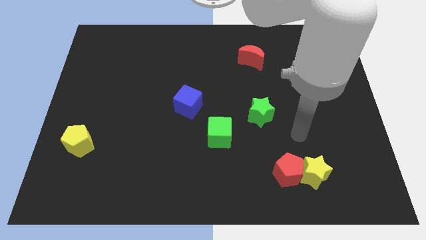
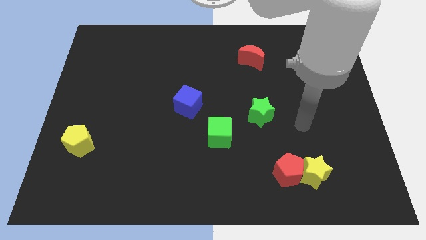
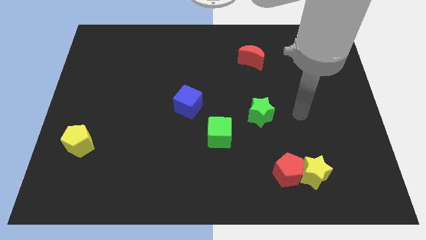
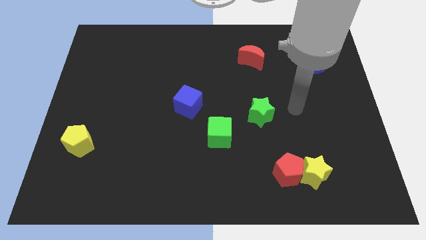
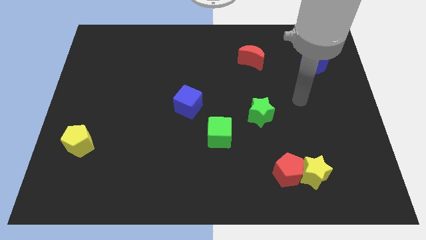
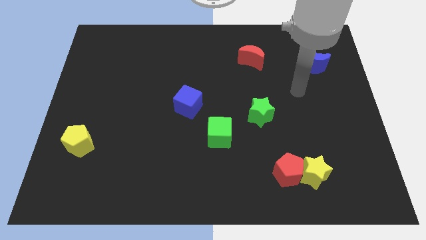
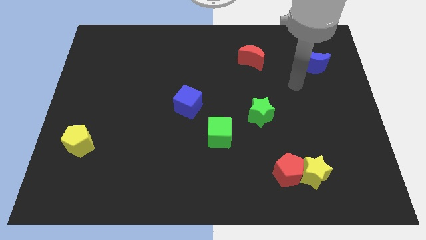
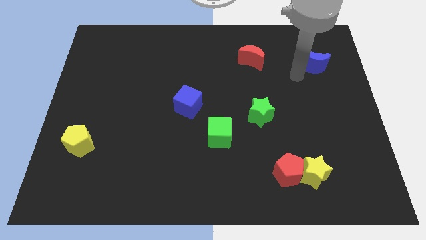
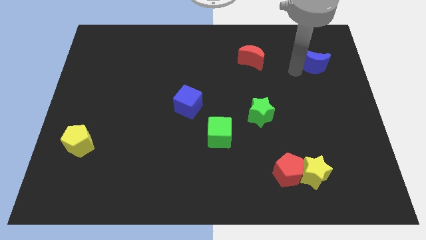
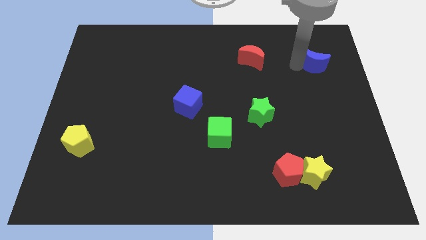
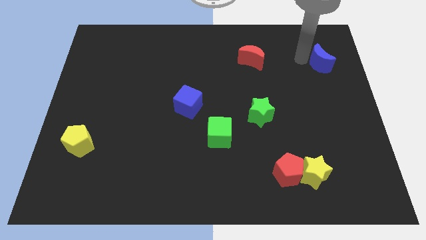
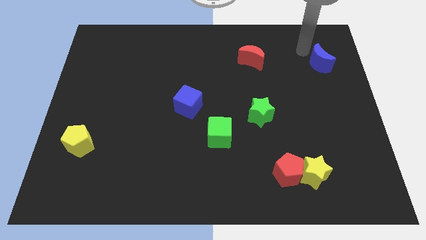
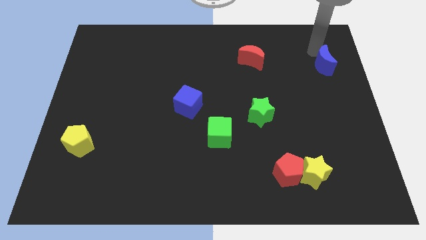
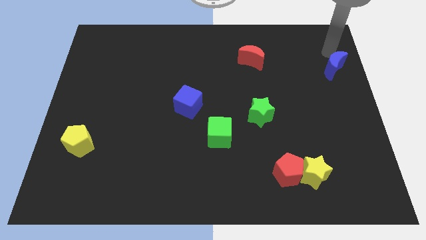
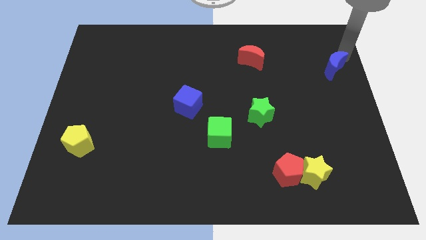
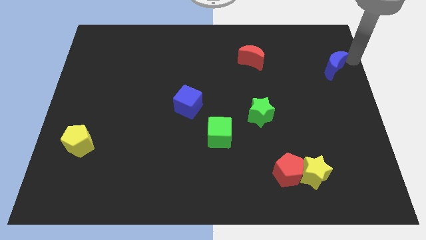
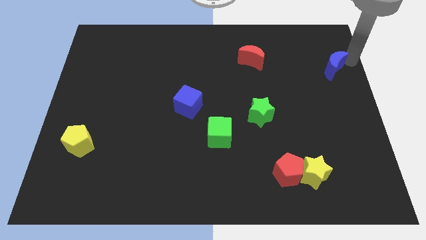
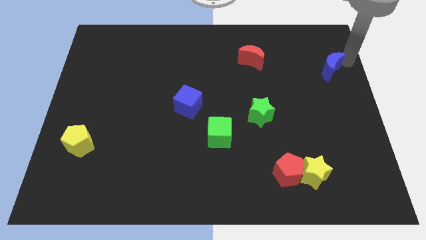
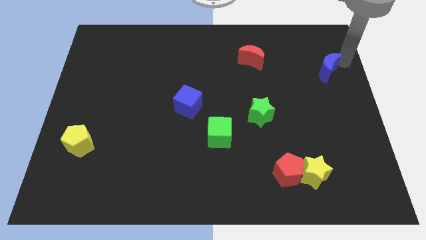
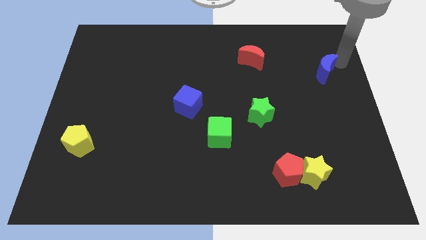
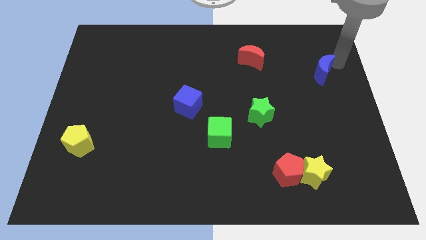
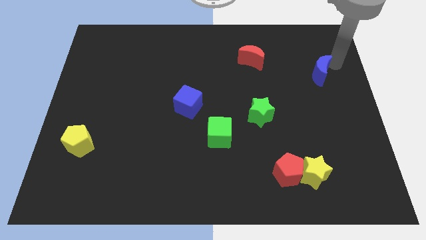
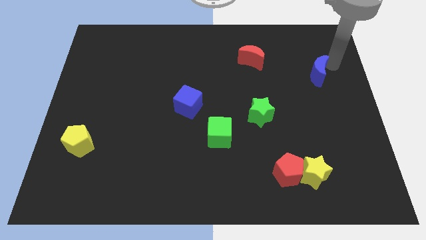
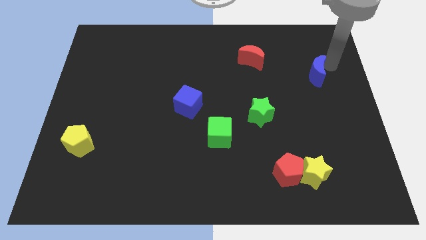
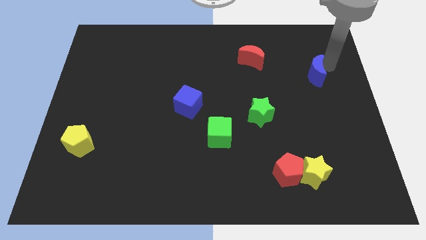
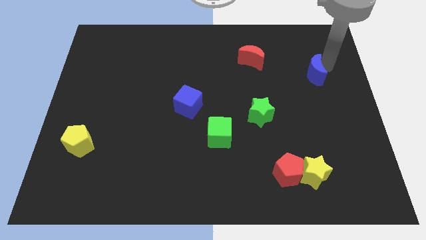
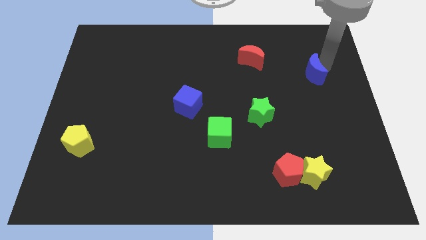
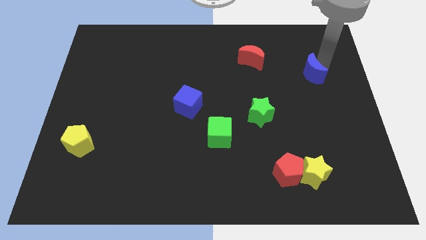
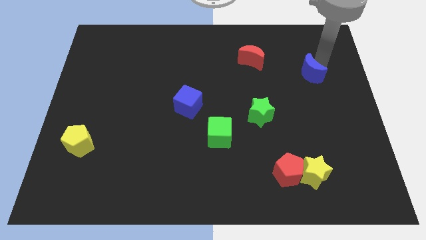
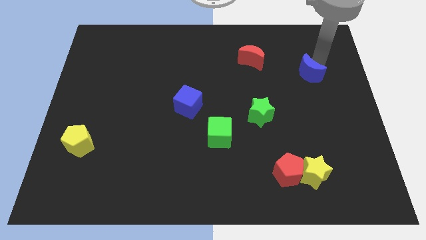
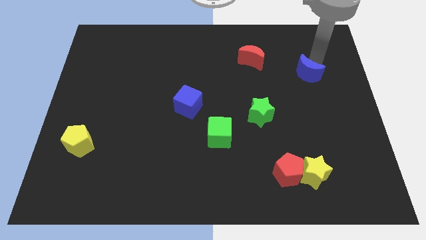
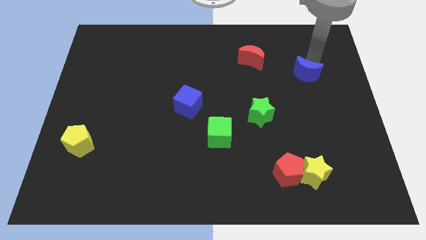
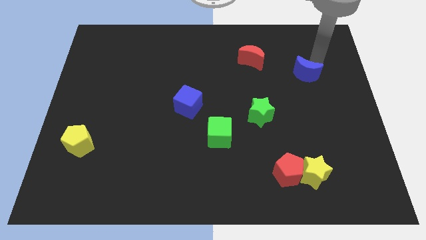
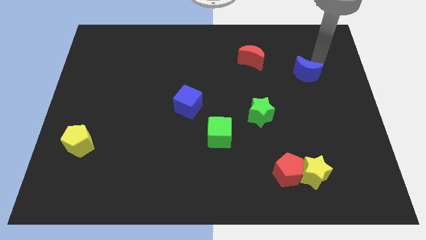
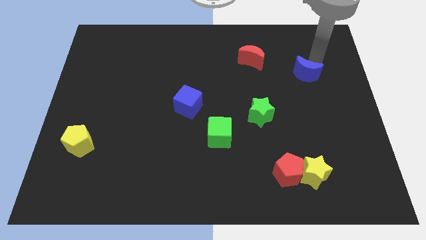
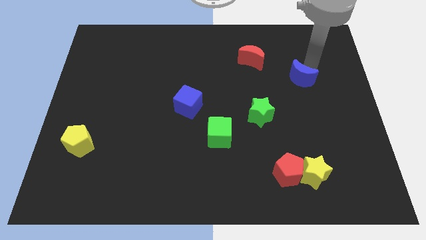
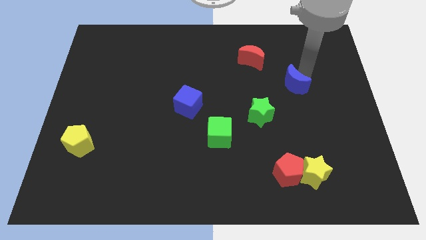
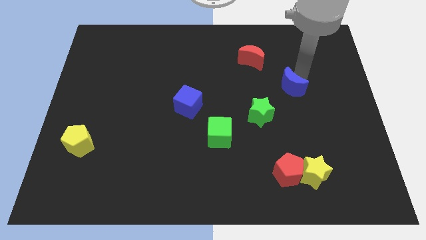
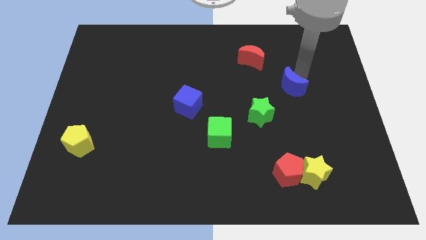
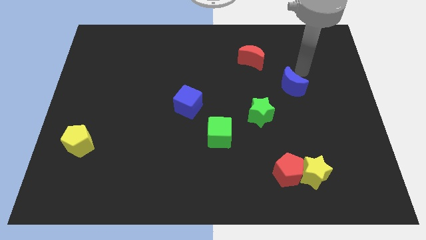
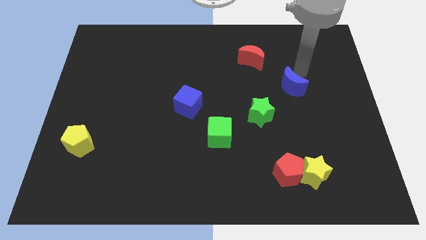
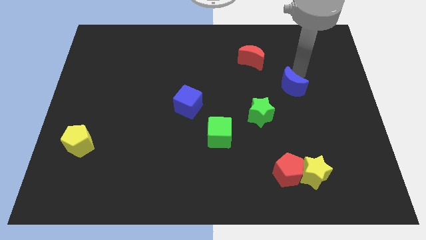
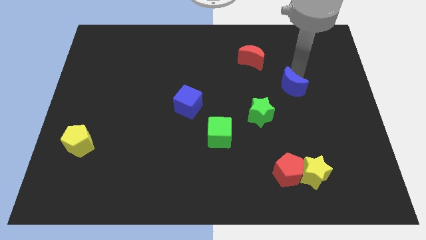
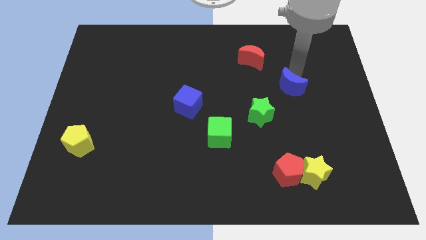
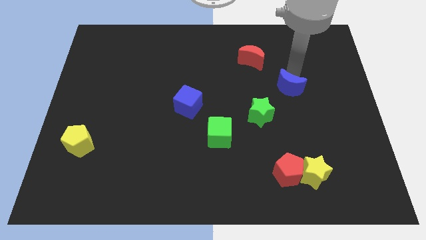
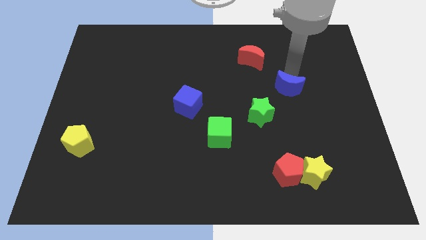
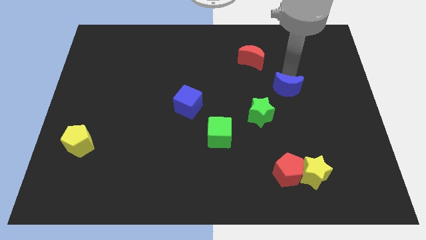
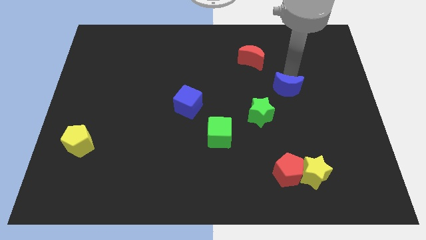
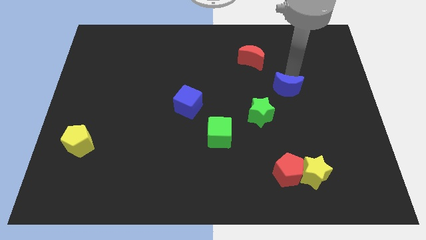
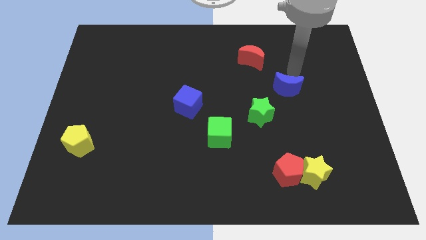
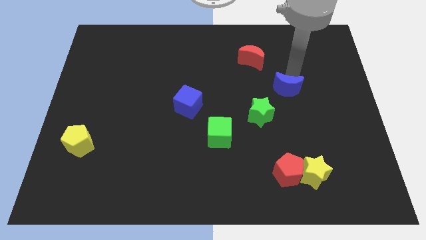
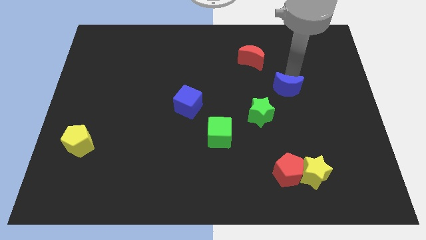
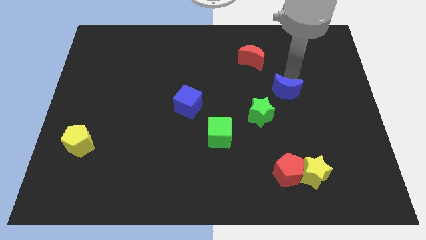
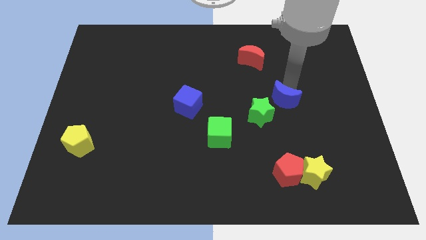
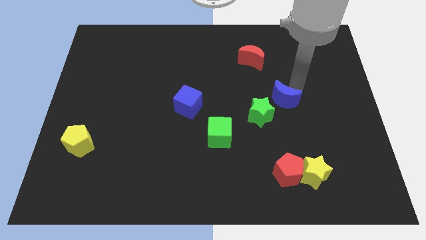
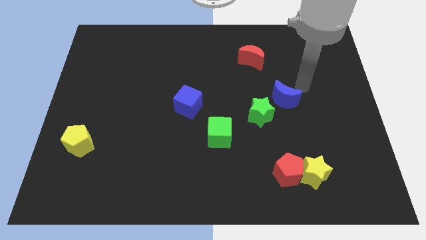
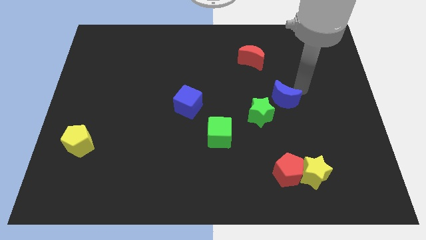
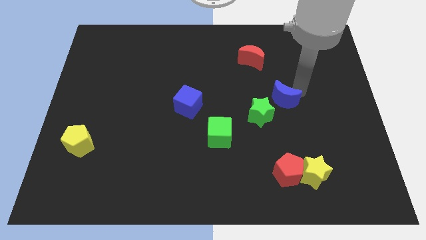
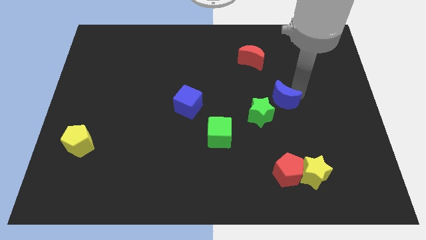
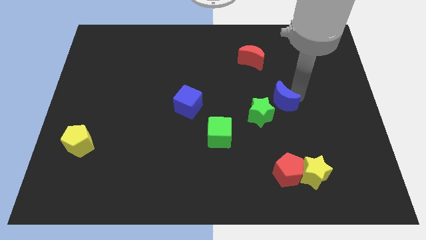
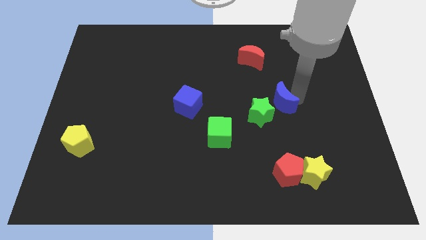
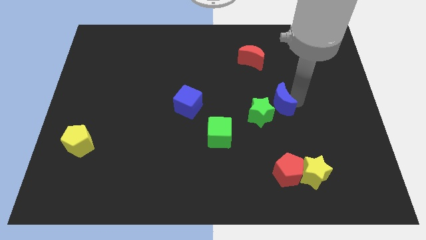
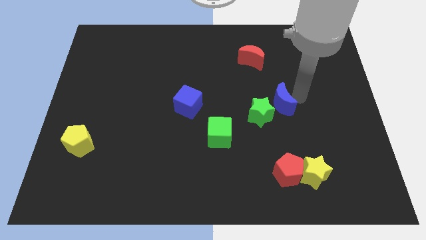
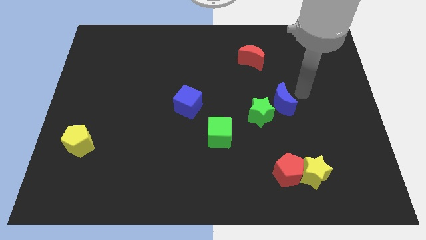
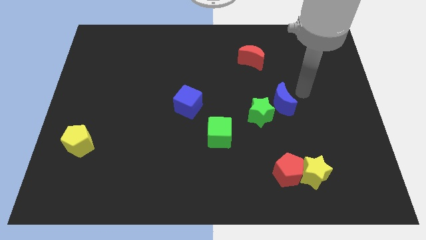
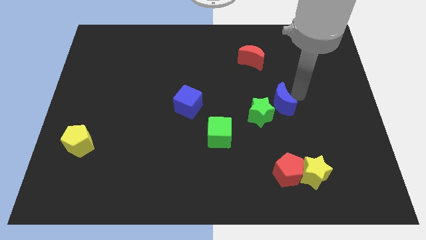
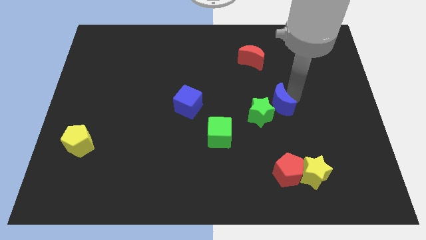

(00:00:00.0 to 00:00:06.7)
put the blue moon next to the green star
